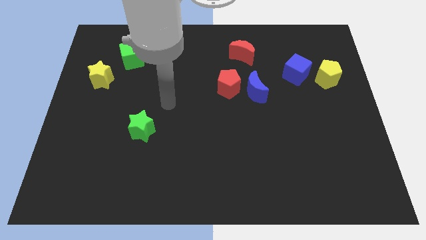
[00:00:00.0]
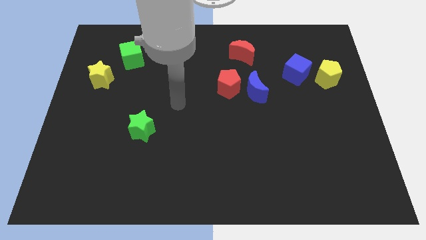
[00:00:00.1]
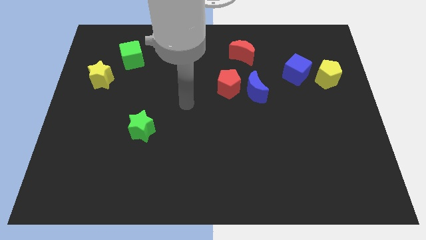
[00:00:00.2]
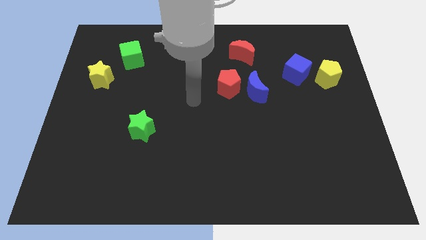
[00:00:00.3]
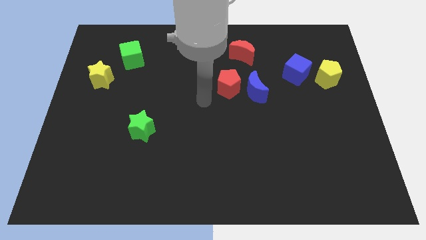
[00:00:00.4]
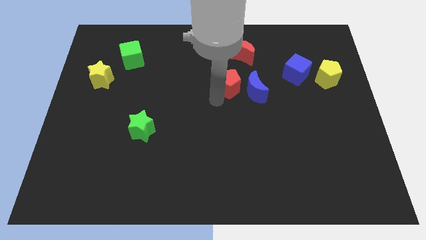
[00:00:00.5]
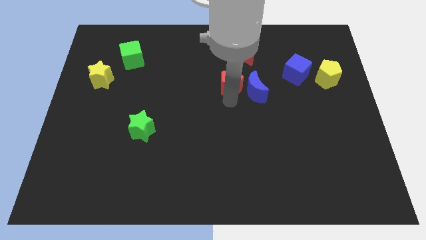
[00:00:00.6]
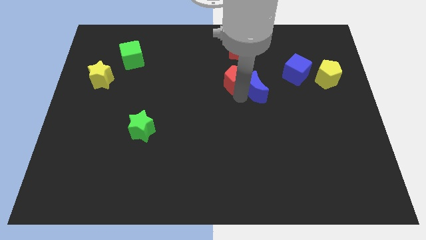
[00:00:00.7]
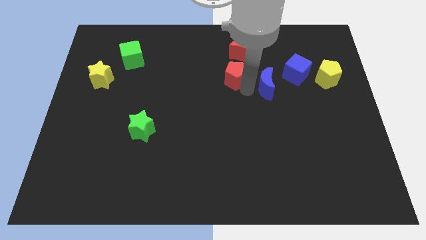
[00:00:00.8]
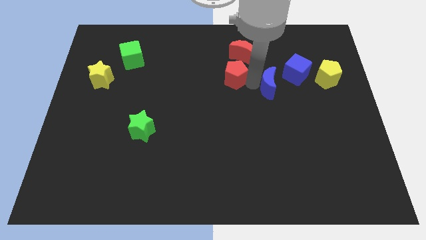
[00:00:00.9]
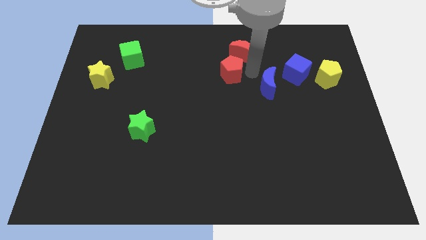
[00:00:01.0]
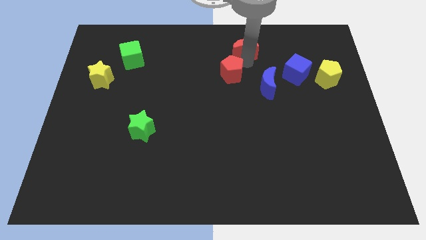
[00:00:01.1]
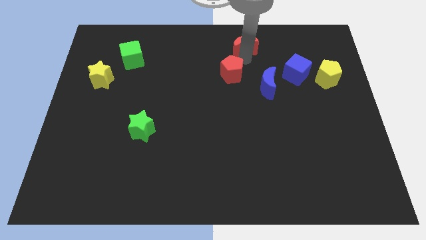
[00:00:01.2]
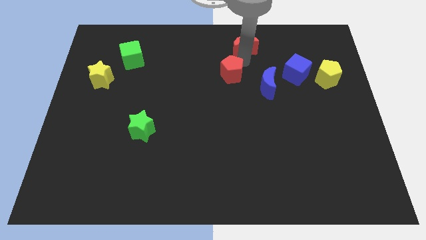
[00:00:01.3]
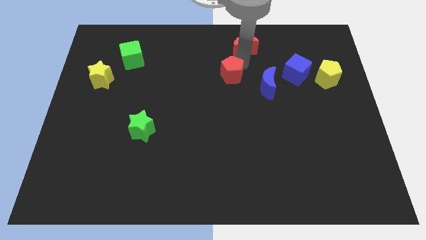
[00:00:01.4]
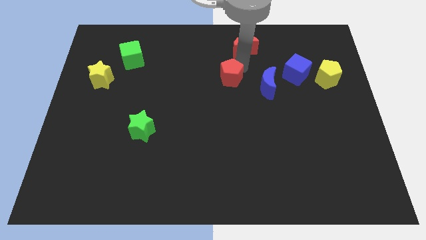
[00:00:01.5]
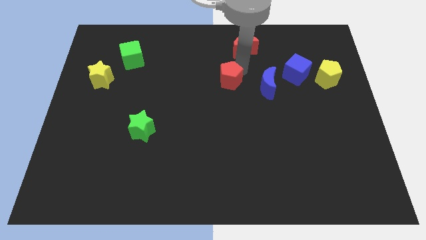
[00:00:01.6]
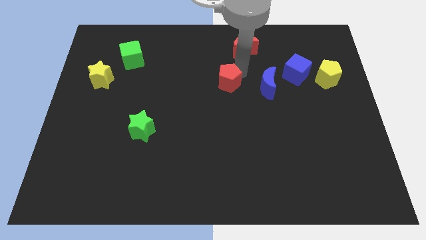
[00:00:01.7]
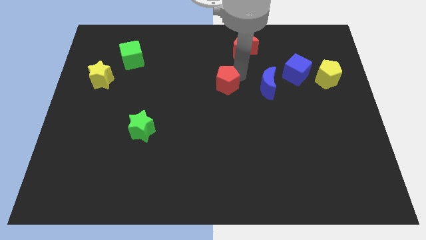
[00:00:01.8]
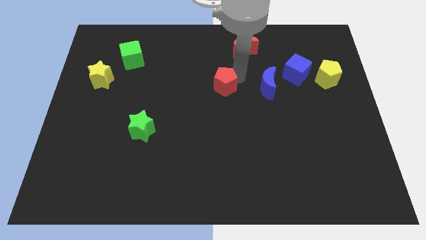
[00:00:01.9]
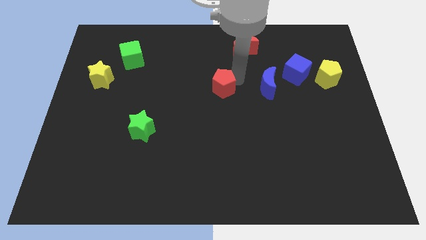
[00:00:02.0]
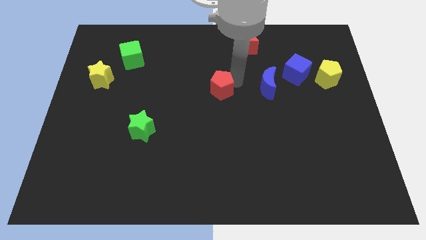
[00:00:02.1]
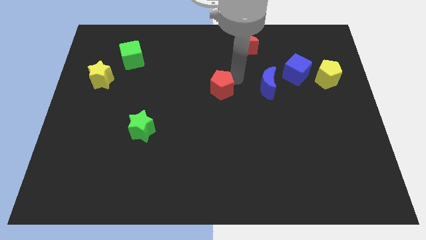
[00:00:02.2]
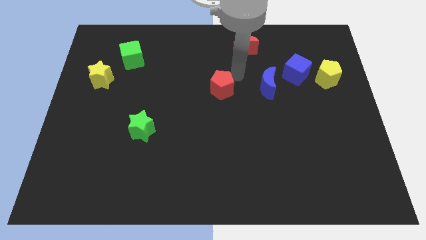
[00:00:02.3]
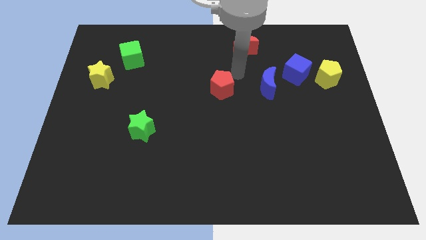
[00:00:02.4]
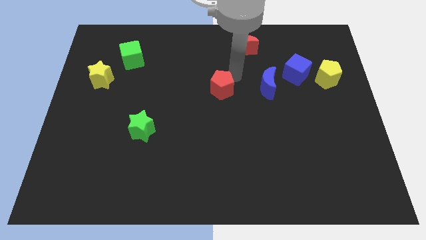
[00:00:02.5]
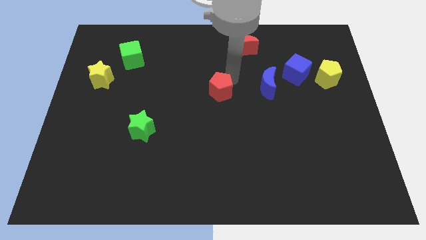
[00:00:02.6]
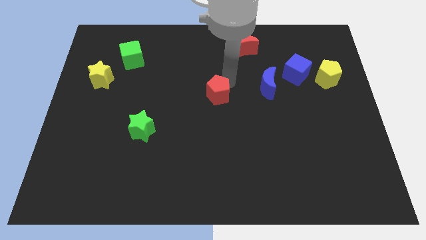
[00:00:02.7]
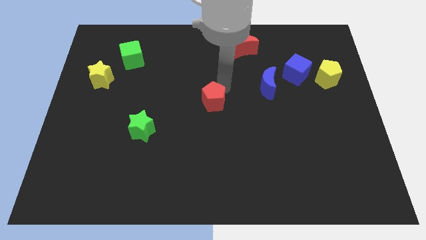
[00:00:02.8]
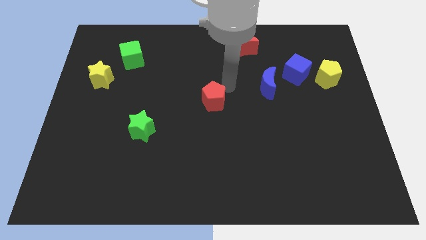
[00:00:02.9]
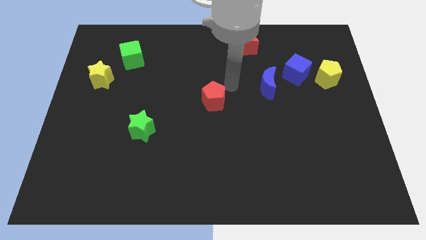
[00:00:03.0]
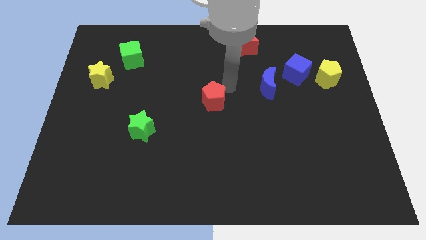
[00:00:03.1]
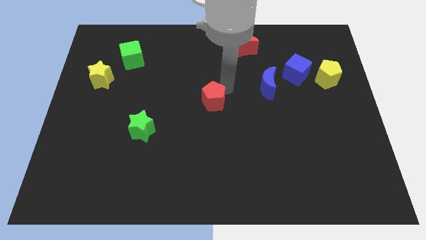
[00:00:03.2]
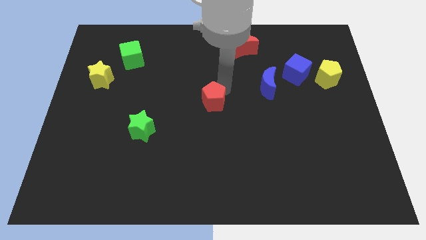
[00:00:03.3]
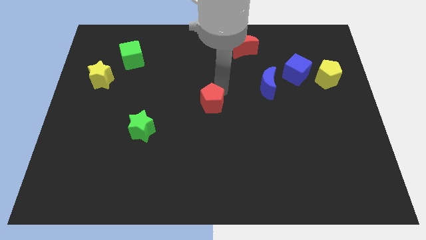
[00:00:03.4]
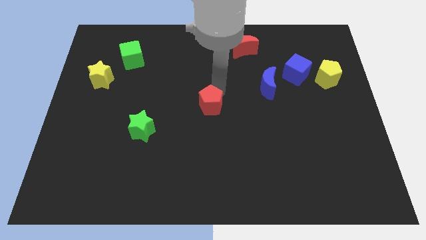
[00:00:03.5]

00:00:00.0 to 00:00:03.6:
slide the red pentagon downwards and then to the left somewhat

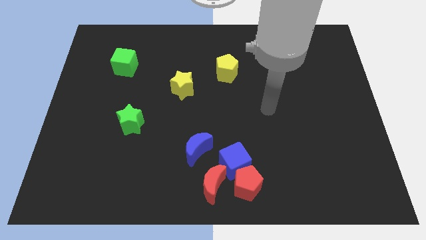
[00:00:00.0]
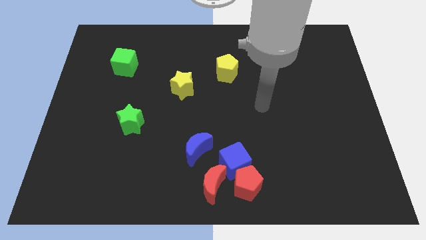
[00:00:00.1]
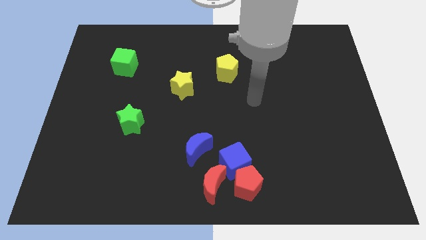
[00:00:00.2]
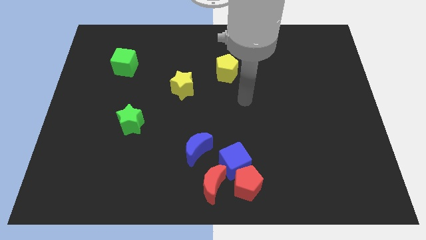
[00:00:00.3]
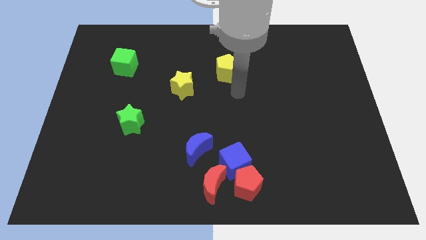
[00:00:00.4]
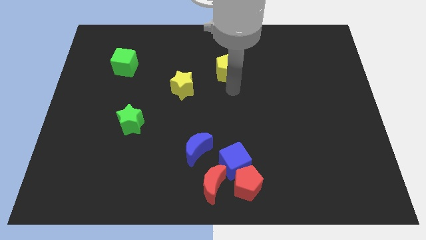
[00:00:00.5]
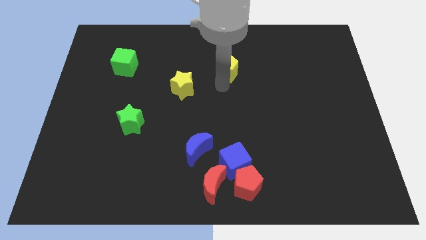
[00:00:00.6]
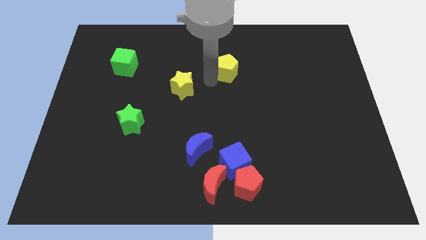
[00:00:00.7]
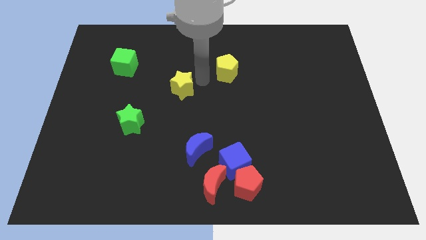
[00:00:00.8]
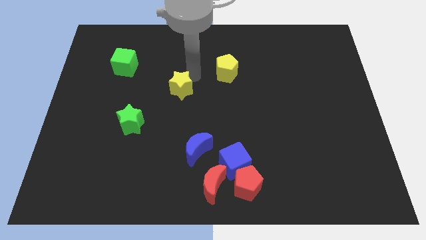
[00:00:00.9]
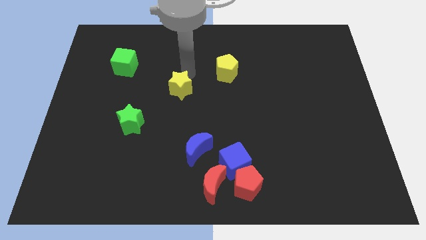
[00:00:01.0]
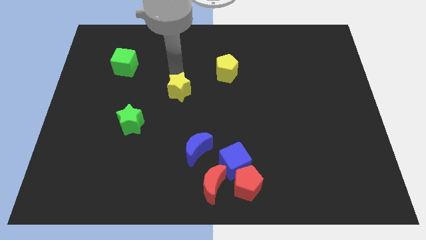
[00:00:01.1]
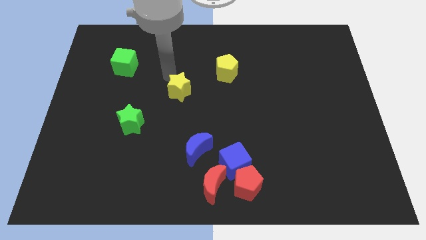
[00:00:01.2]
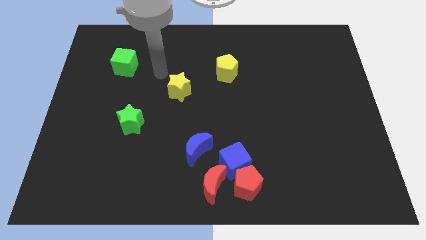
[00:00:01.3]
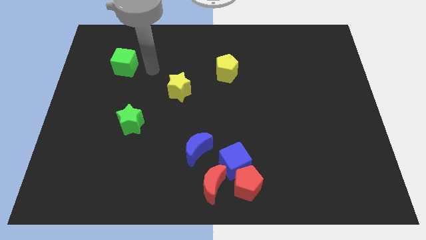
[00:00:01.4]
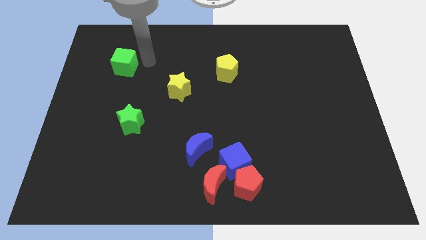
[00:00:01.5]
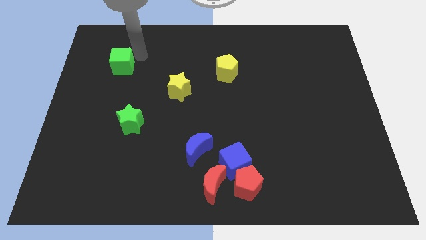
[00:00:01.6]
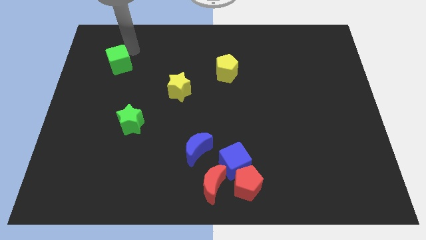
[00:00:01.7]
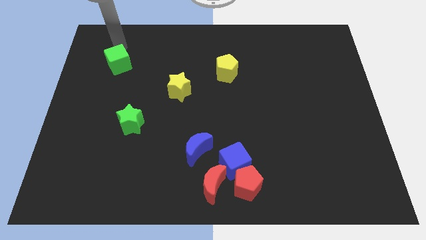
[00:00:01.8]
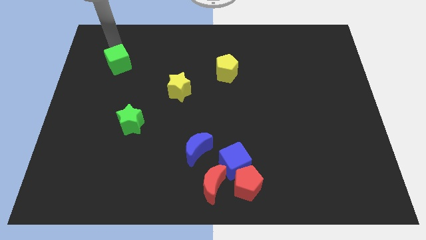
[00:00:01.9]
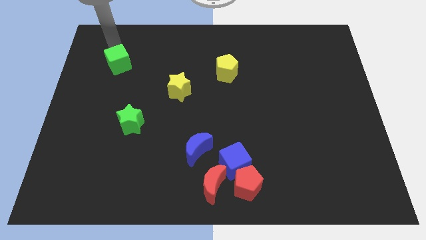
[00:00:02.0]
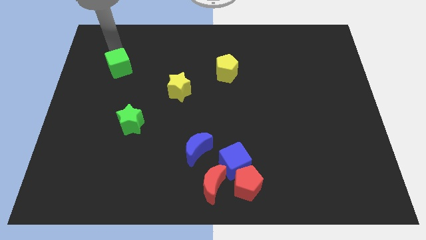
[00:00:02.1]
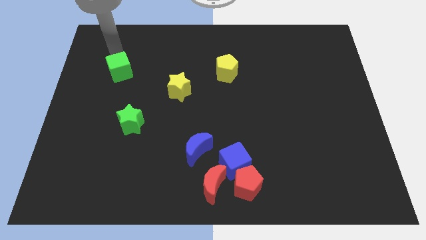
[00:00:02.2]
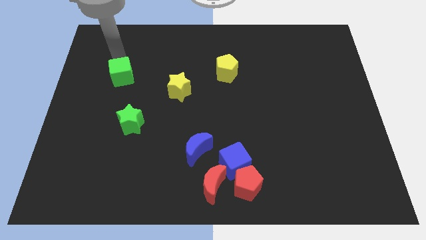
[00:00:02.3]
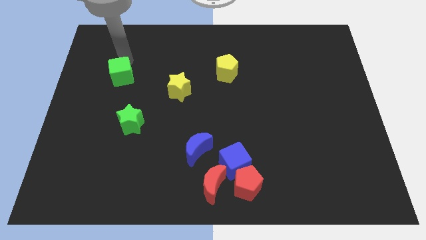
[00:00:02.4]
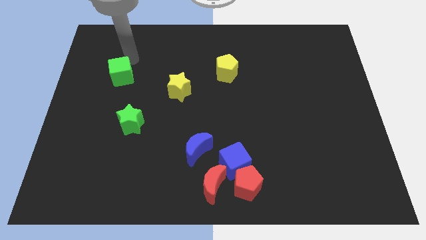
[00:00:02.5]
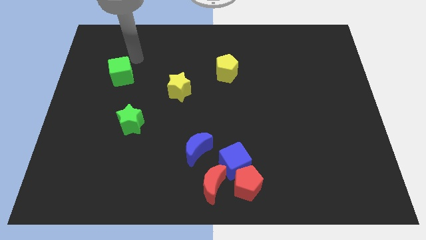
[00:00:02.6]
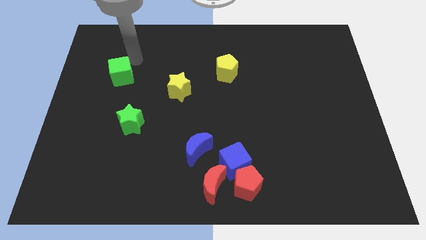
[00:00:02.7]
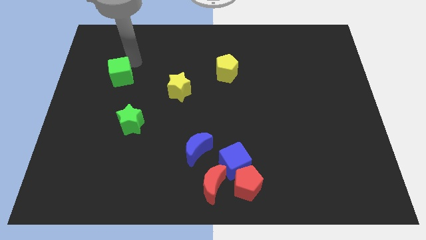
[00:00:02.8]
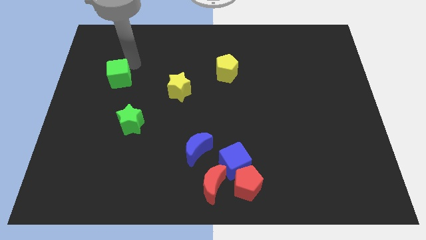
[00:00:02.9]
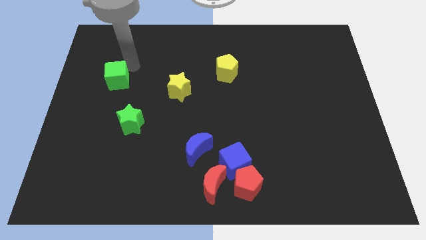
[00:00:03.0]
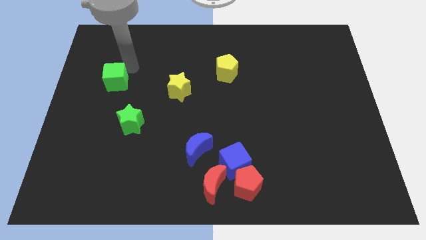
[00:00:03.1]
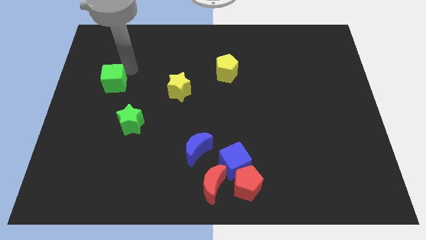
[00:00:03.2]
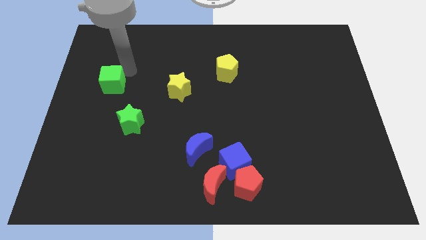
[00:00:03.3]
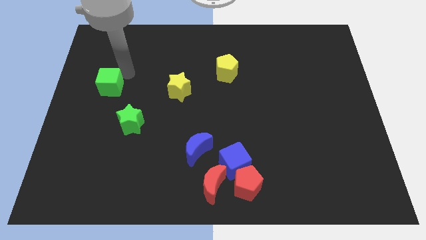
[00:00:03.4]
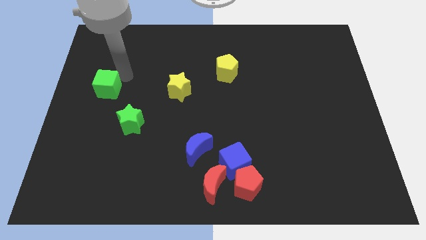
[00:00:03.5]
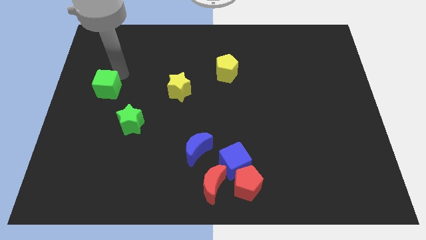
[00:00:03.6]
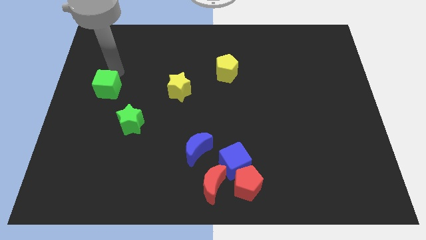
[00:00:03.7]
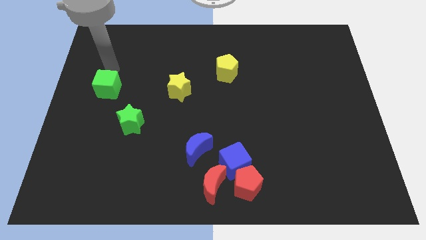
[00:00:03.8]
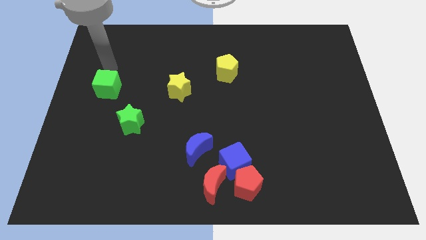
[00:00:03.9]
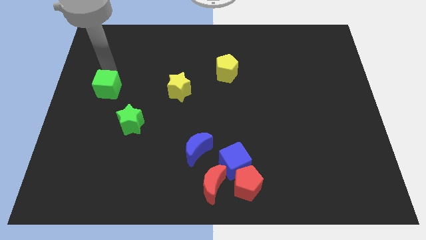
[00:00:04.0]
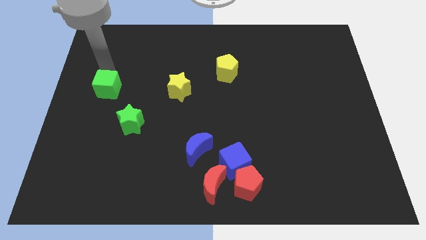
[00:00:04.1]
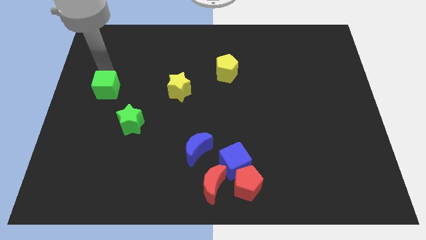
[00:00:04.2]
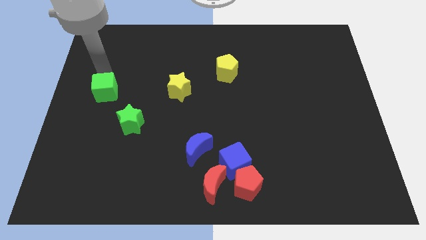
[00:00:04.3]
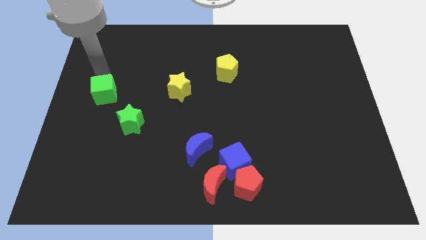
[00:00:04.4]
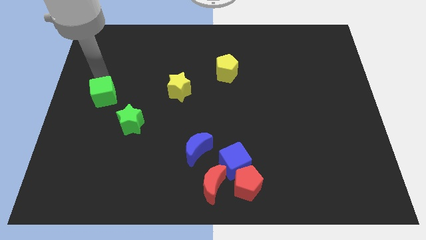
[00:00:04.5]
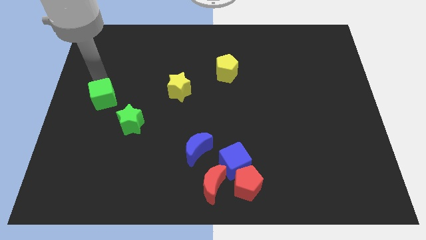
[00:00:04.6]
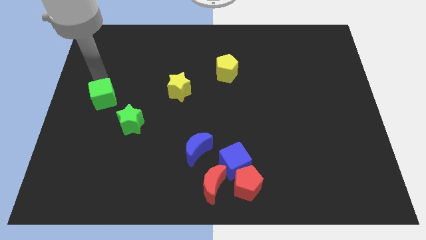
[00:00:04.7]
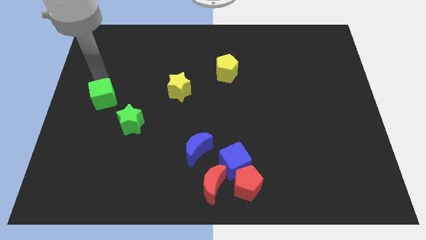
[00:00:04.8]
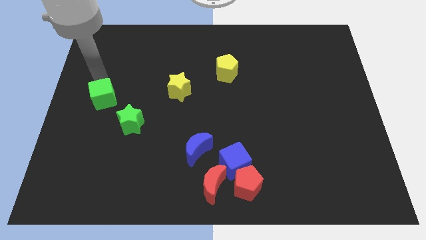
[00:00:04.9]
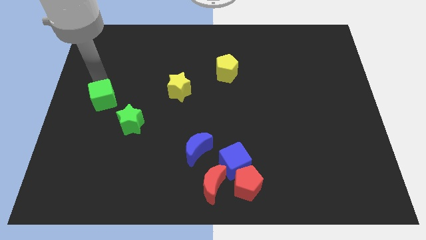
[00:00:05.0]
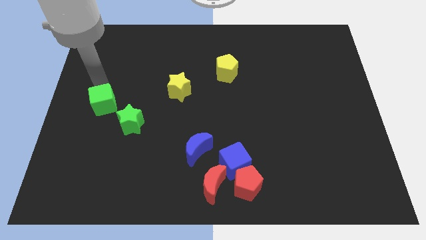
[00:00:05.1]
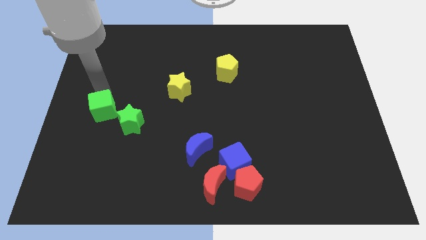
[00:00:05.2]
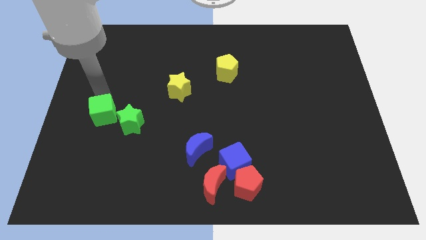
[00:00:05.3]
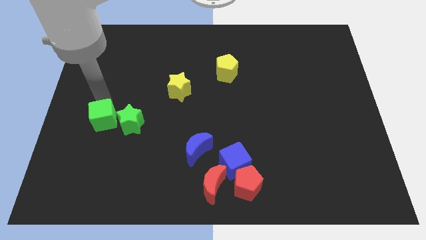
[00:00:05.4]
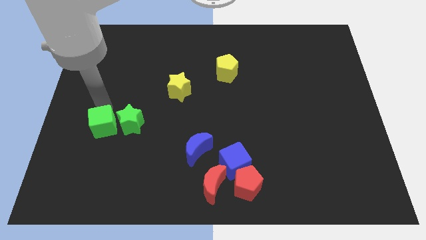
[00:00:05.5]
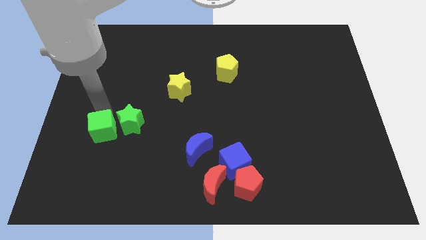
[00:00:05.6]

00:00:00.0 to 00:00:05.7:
slide the green cube downwards
